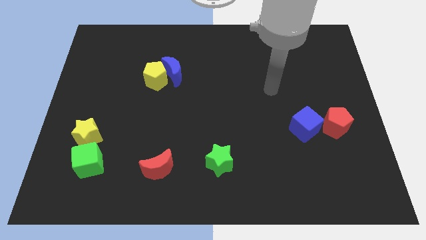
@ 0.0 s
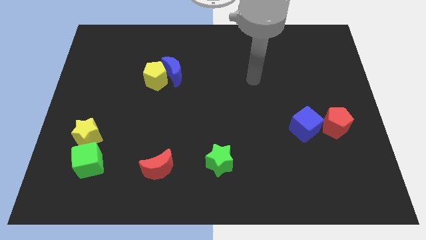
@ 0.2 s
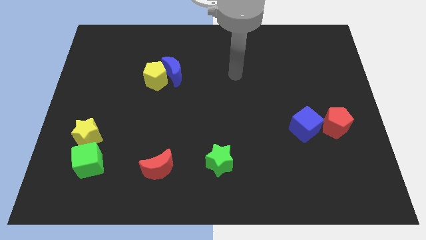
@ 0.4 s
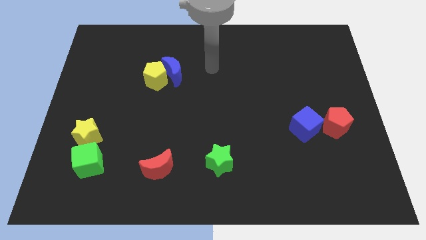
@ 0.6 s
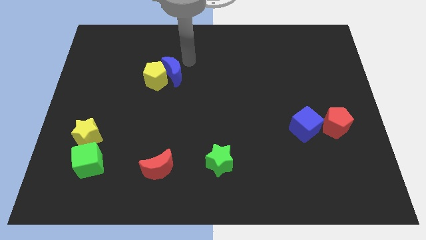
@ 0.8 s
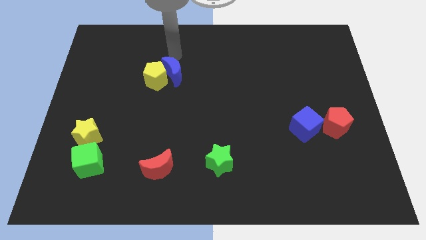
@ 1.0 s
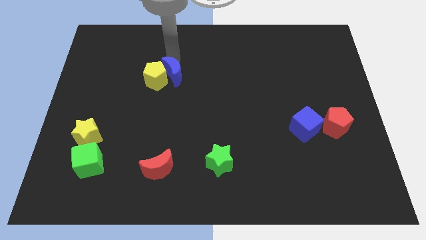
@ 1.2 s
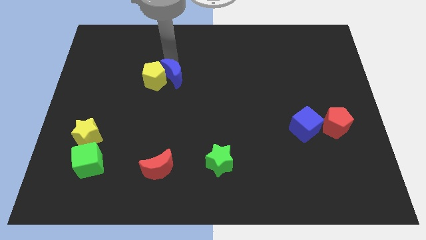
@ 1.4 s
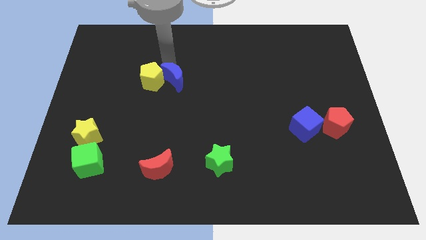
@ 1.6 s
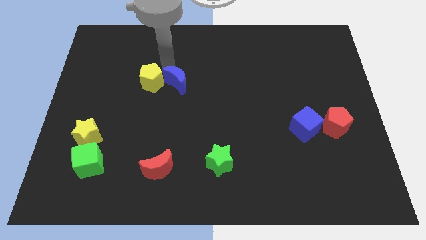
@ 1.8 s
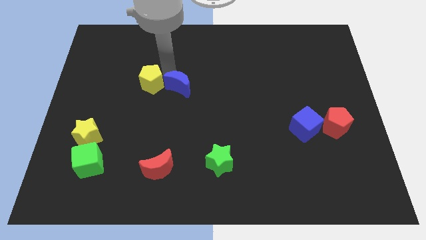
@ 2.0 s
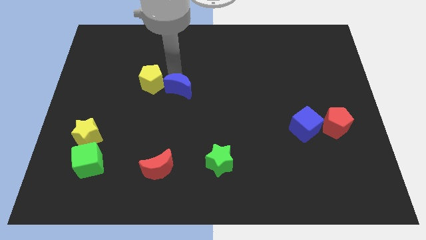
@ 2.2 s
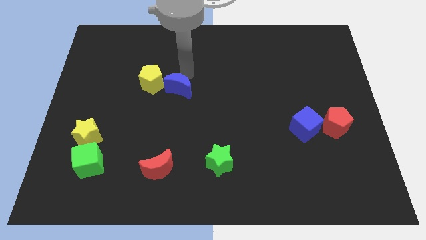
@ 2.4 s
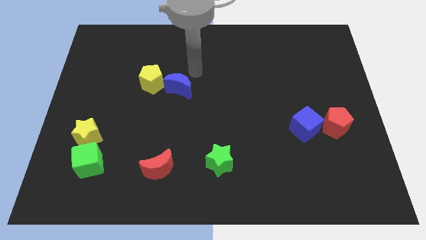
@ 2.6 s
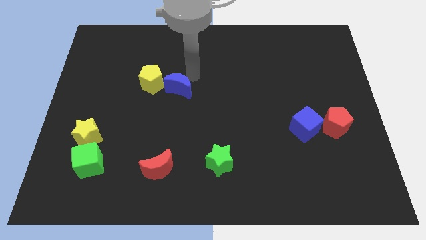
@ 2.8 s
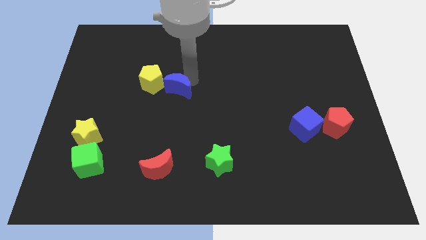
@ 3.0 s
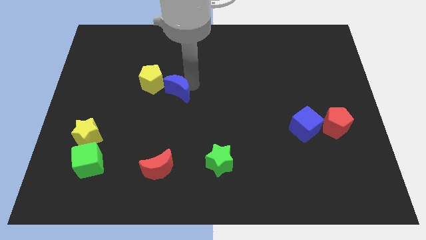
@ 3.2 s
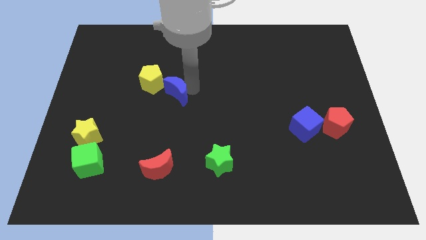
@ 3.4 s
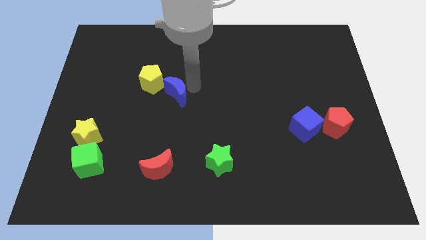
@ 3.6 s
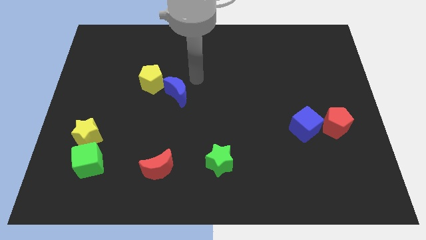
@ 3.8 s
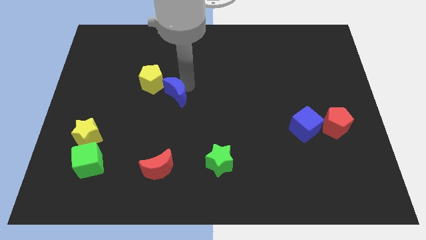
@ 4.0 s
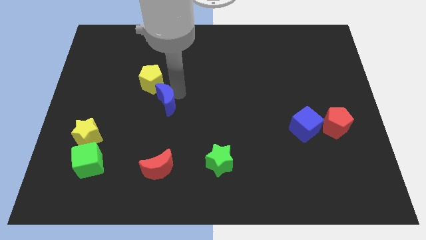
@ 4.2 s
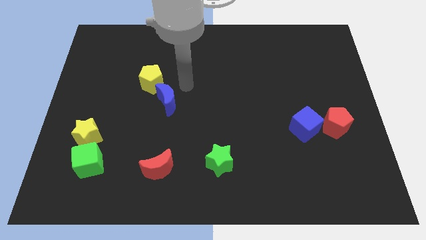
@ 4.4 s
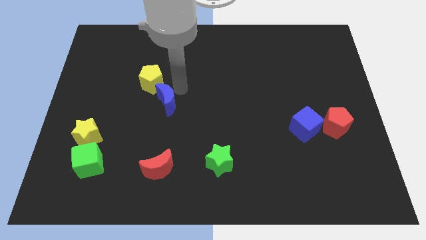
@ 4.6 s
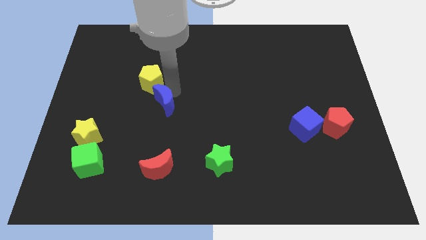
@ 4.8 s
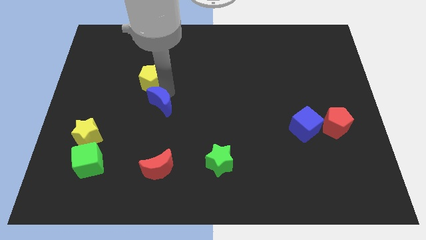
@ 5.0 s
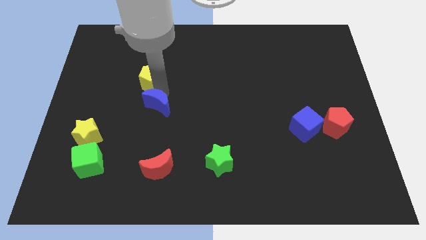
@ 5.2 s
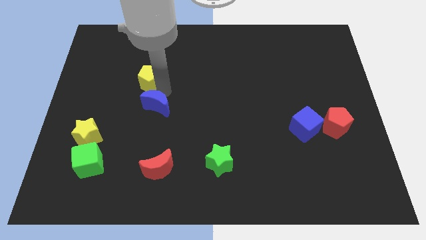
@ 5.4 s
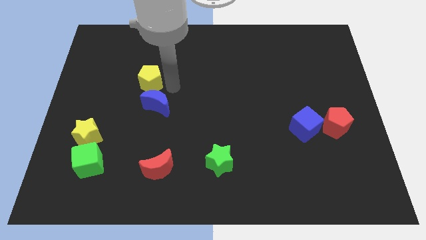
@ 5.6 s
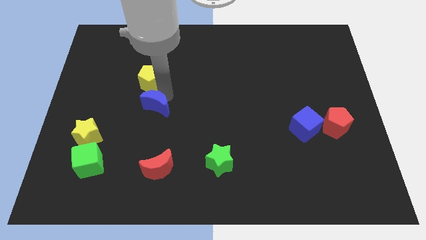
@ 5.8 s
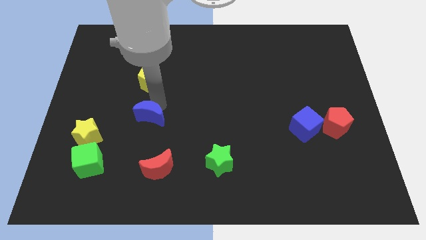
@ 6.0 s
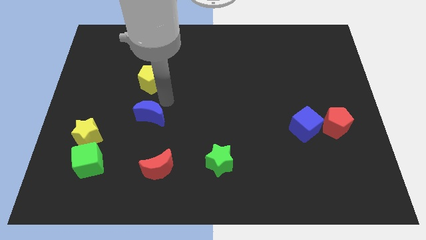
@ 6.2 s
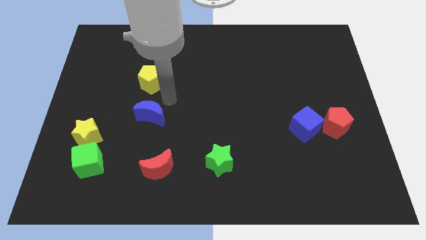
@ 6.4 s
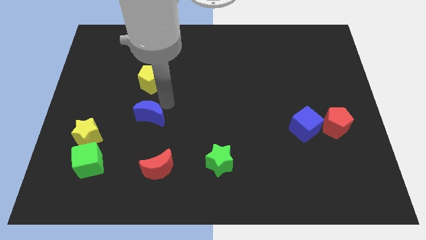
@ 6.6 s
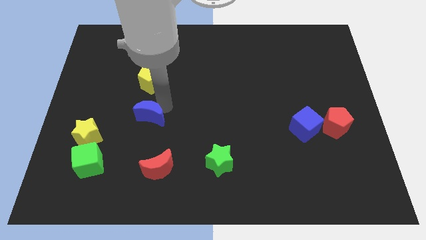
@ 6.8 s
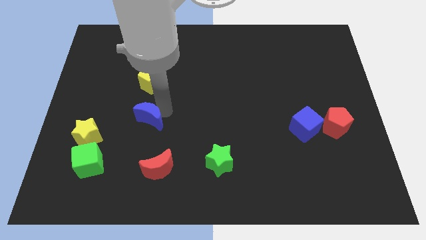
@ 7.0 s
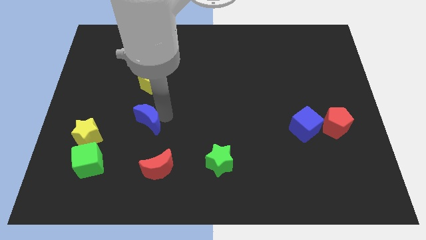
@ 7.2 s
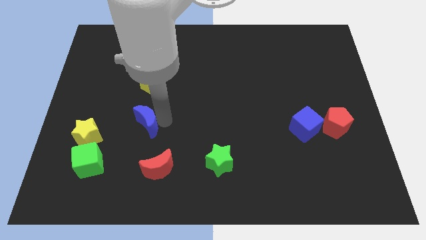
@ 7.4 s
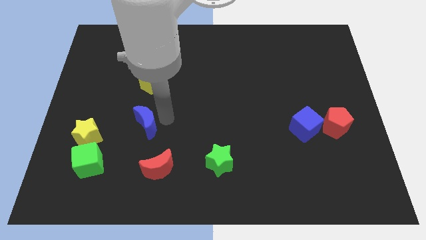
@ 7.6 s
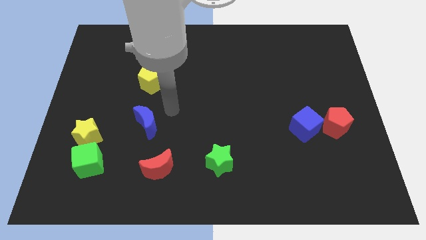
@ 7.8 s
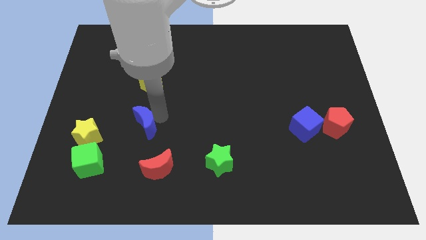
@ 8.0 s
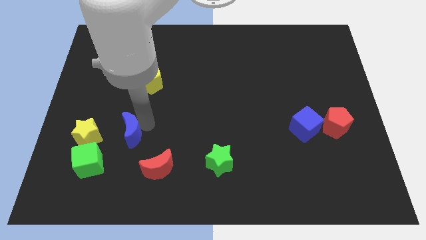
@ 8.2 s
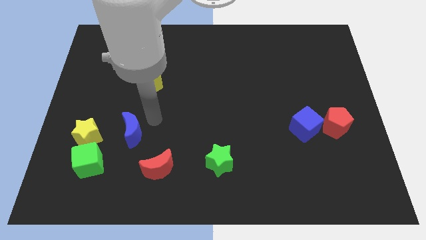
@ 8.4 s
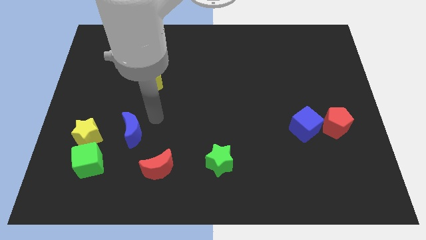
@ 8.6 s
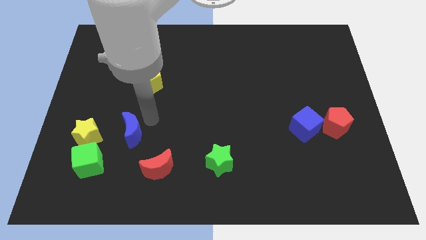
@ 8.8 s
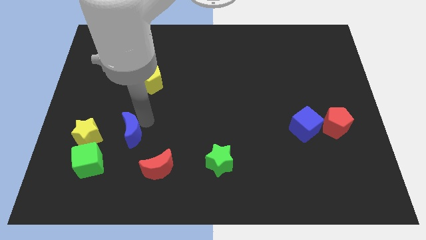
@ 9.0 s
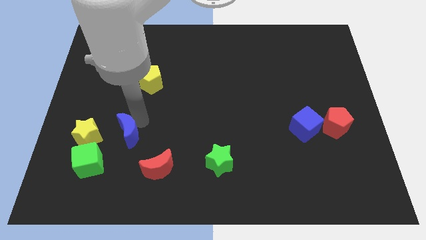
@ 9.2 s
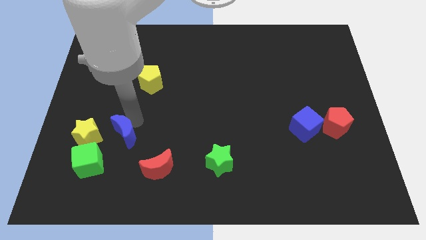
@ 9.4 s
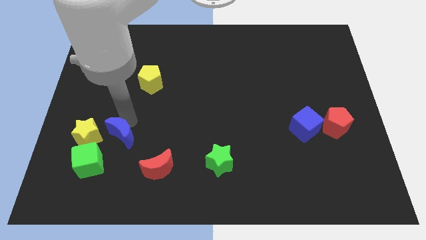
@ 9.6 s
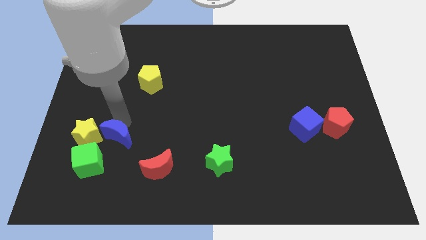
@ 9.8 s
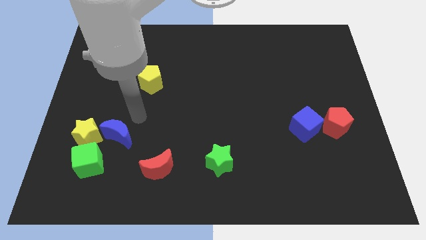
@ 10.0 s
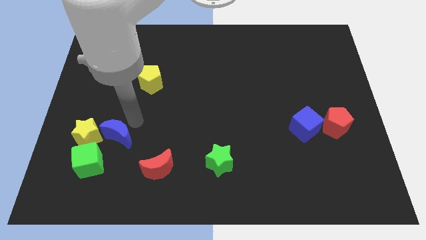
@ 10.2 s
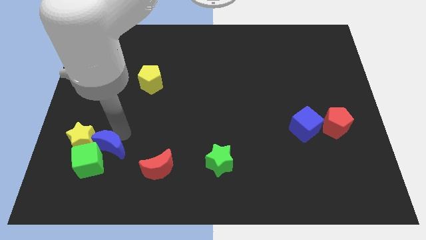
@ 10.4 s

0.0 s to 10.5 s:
put the blue moon next to the green cube

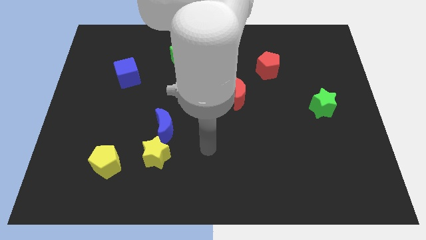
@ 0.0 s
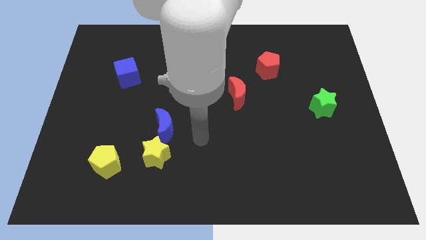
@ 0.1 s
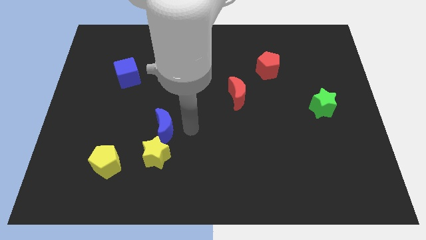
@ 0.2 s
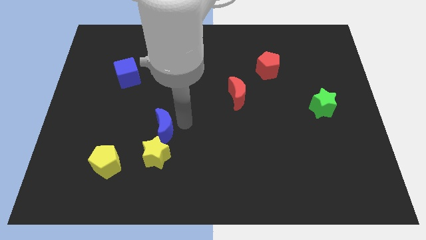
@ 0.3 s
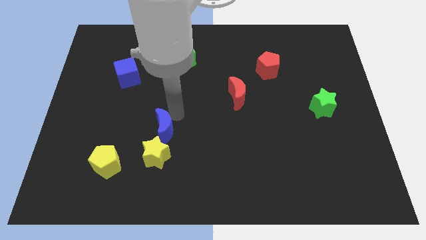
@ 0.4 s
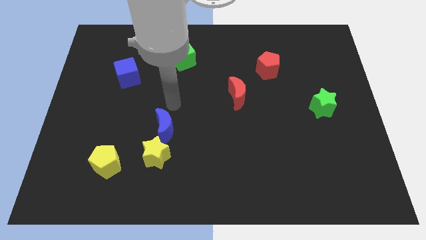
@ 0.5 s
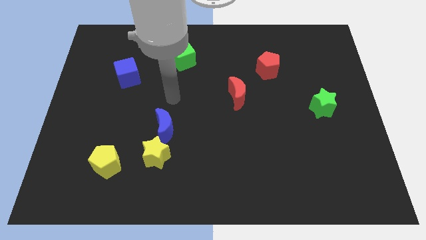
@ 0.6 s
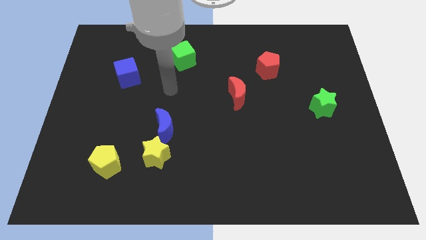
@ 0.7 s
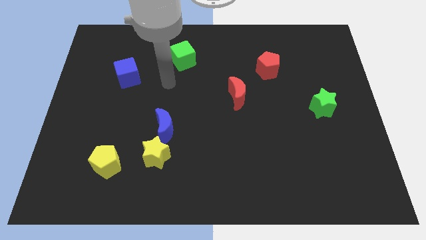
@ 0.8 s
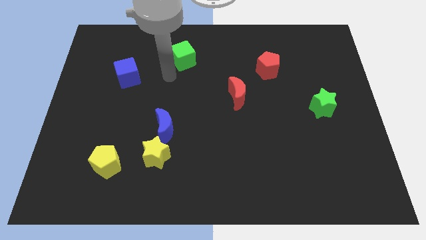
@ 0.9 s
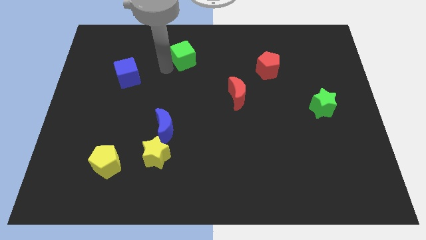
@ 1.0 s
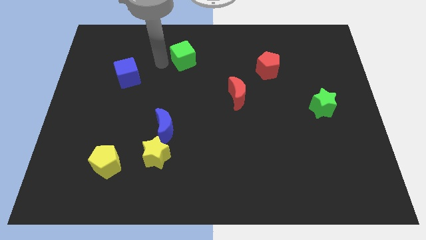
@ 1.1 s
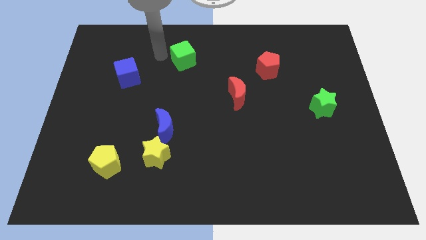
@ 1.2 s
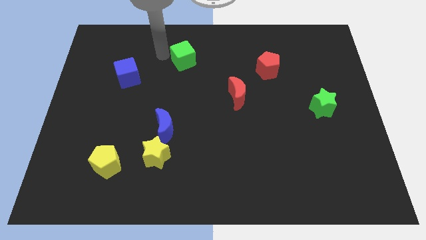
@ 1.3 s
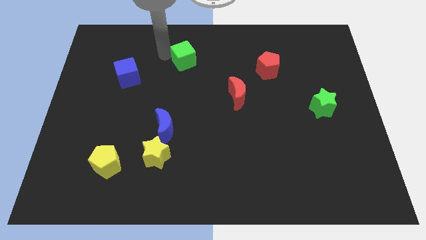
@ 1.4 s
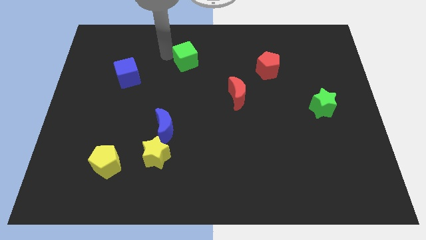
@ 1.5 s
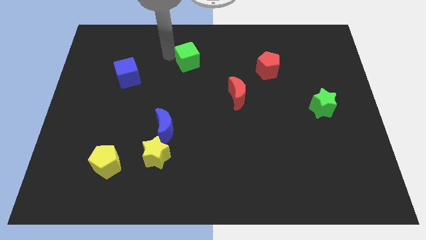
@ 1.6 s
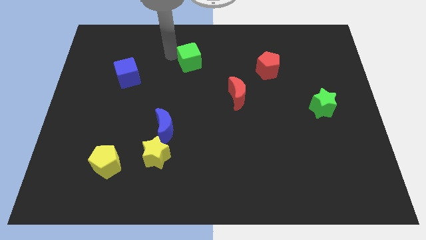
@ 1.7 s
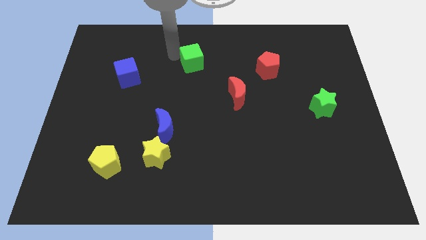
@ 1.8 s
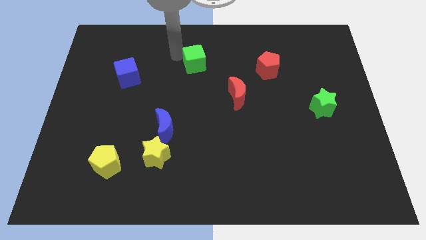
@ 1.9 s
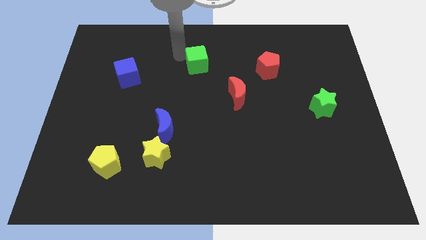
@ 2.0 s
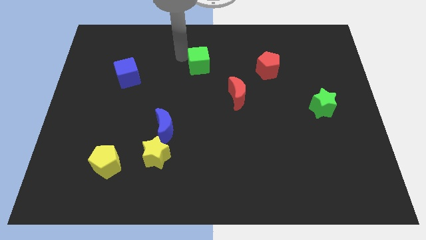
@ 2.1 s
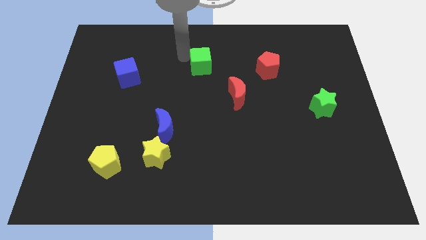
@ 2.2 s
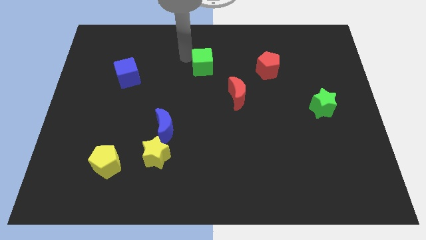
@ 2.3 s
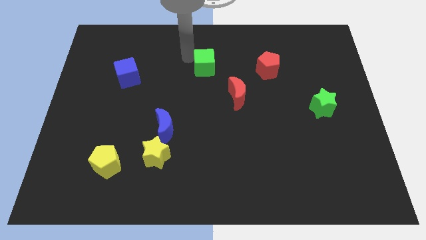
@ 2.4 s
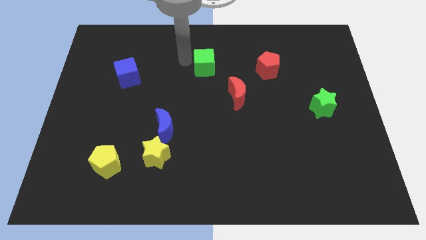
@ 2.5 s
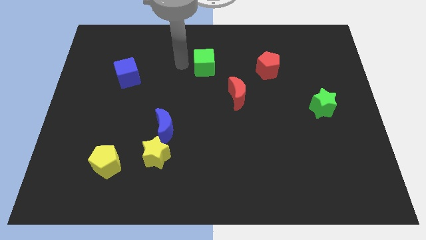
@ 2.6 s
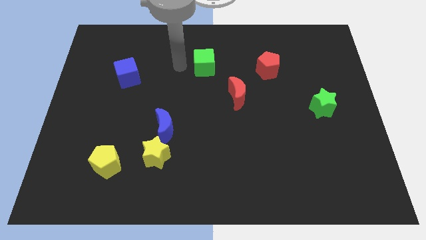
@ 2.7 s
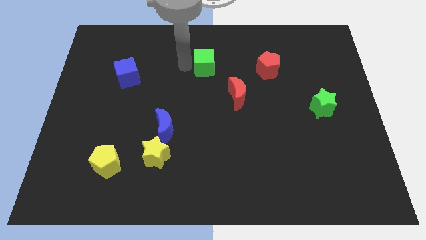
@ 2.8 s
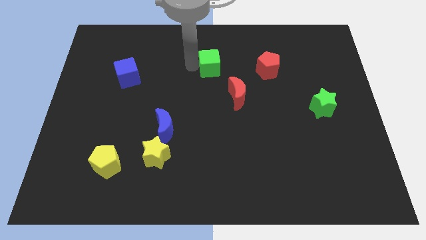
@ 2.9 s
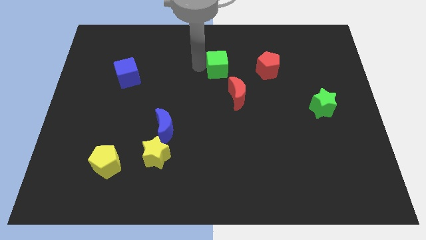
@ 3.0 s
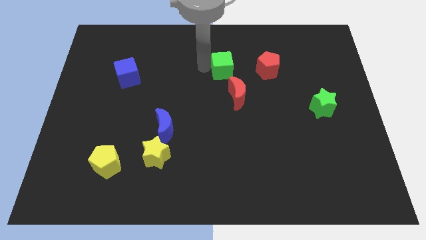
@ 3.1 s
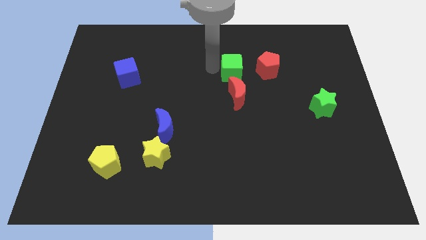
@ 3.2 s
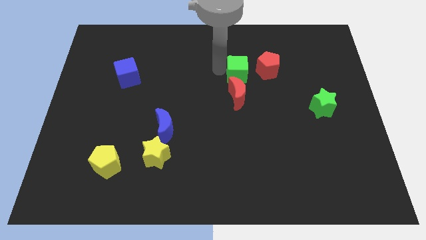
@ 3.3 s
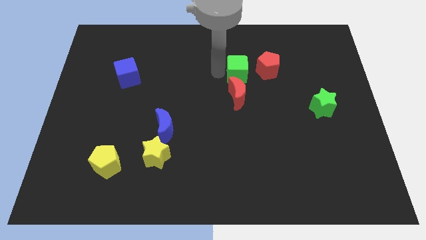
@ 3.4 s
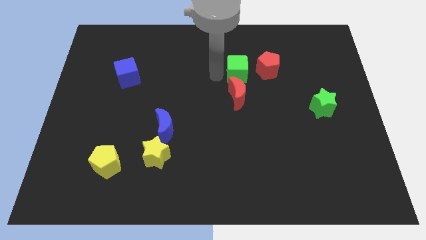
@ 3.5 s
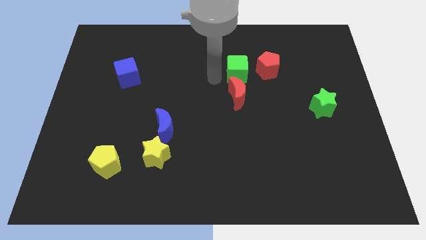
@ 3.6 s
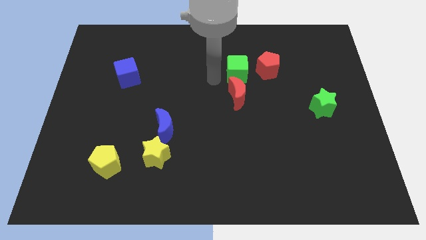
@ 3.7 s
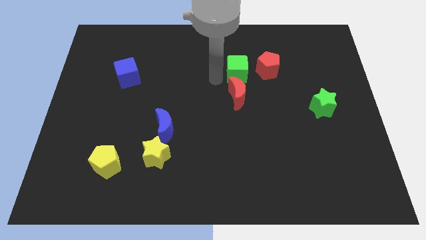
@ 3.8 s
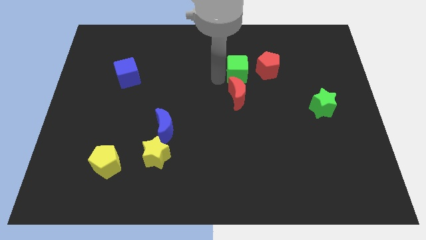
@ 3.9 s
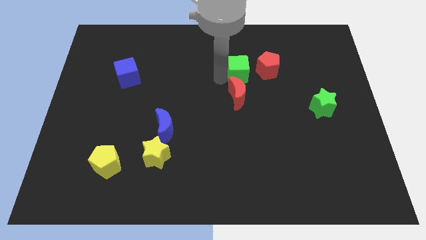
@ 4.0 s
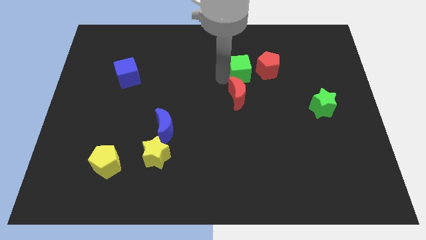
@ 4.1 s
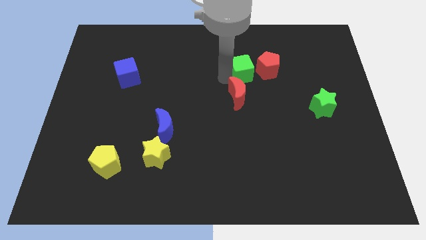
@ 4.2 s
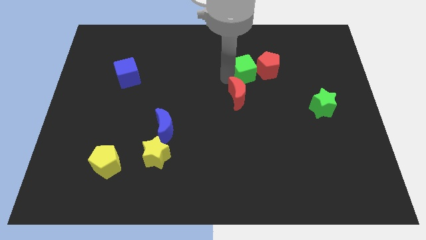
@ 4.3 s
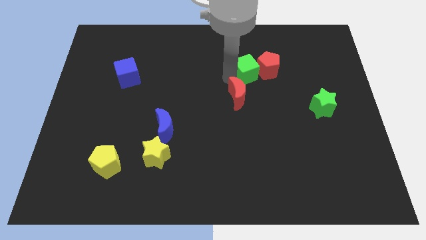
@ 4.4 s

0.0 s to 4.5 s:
slide the green cube next to the red pentagon
